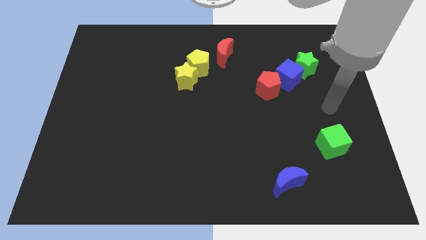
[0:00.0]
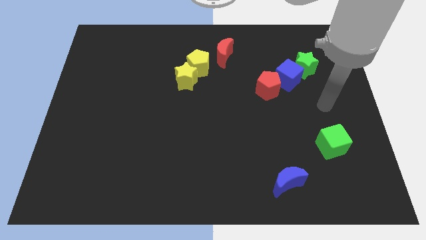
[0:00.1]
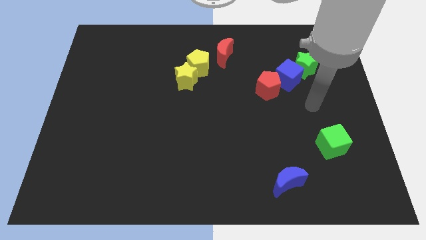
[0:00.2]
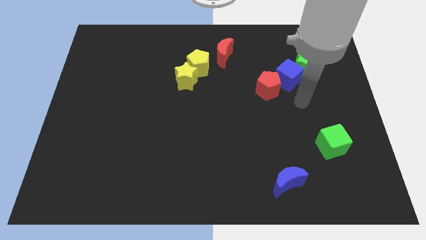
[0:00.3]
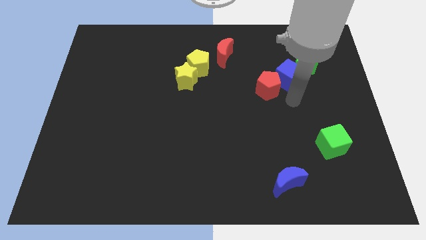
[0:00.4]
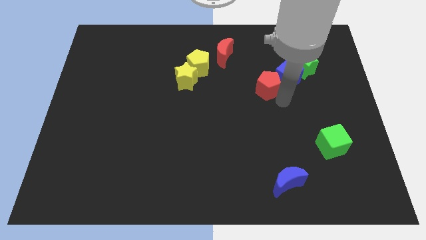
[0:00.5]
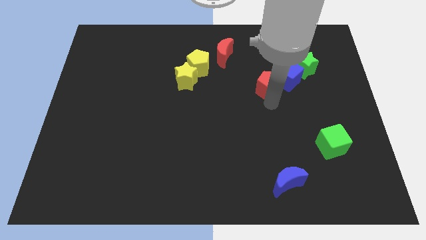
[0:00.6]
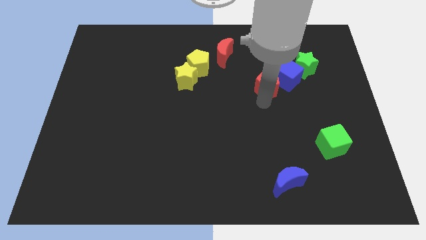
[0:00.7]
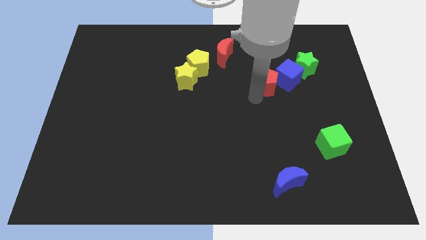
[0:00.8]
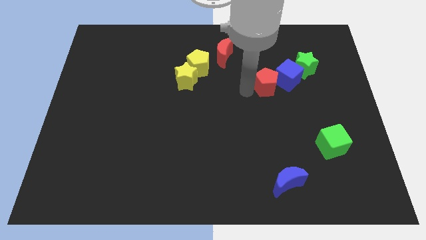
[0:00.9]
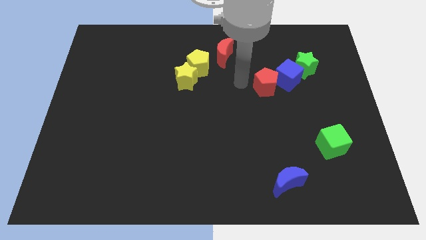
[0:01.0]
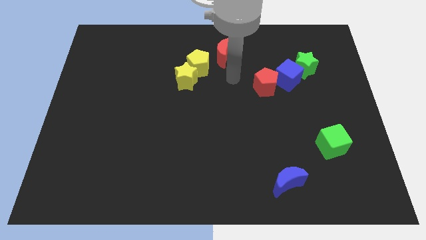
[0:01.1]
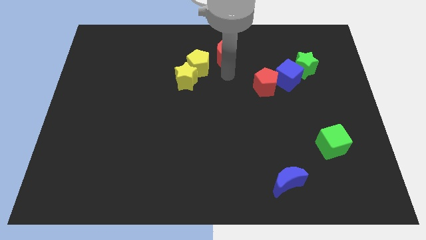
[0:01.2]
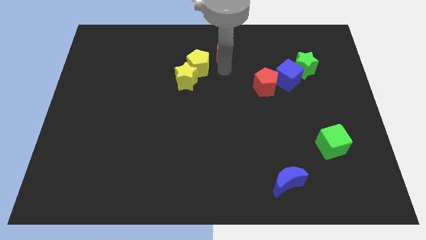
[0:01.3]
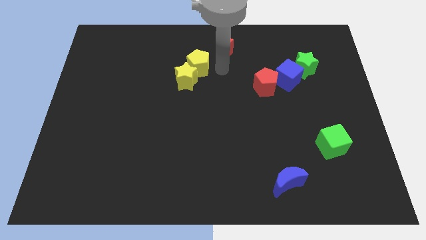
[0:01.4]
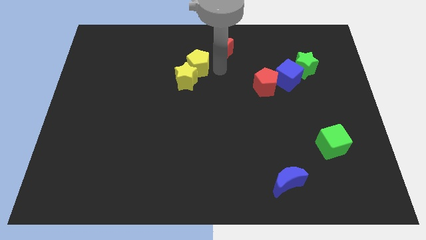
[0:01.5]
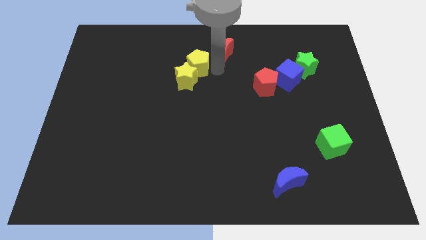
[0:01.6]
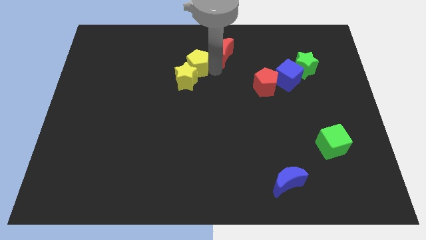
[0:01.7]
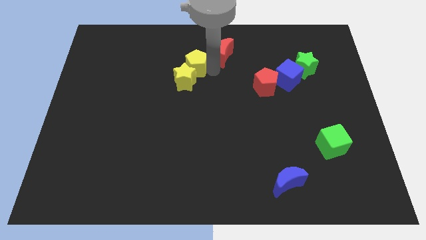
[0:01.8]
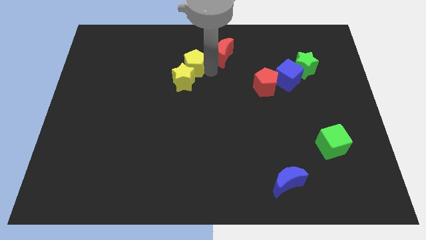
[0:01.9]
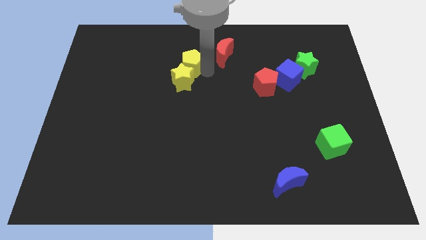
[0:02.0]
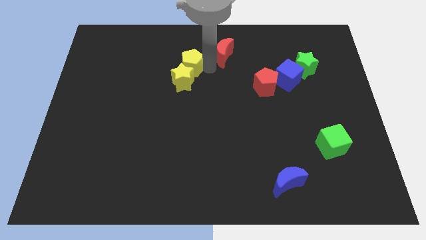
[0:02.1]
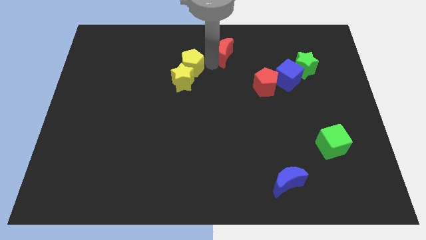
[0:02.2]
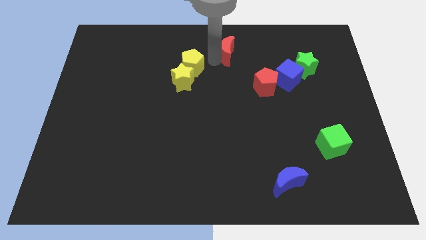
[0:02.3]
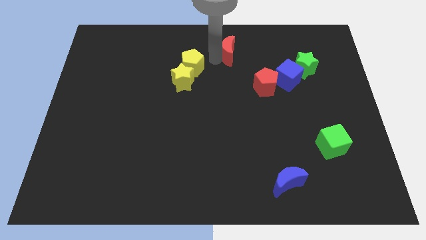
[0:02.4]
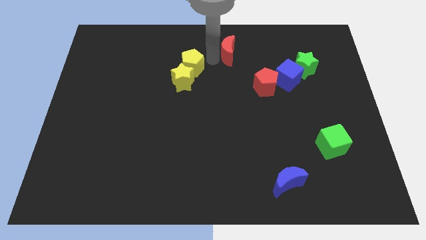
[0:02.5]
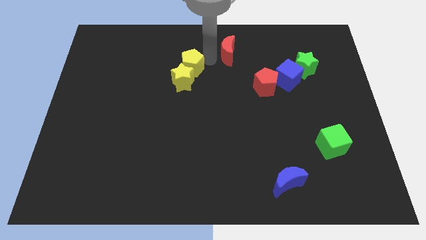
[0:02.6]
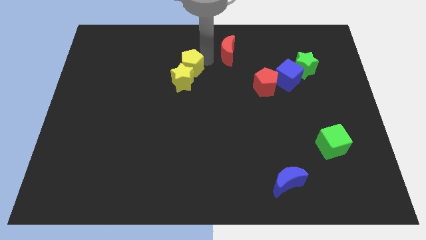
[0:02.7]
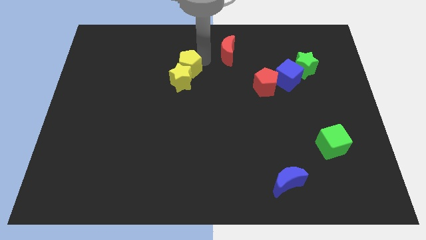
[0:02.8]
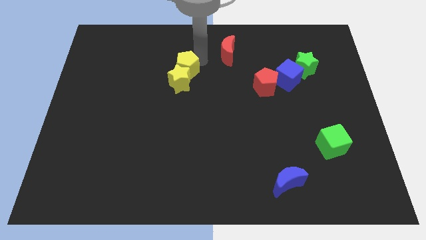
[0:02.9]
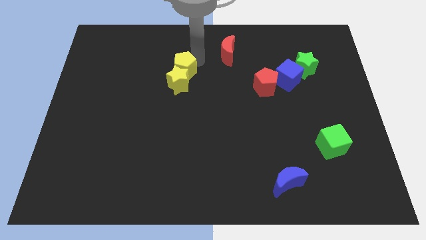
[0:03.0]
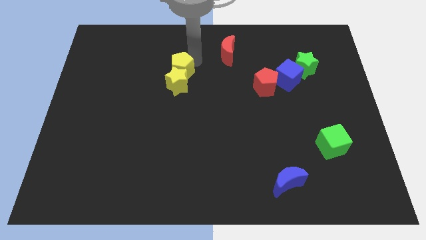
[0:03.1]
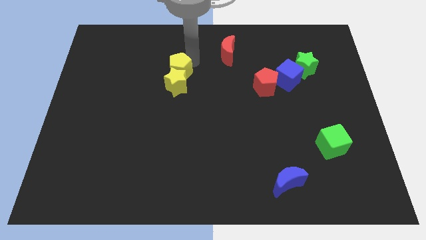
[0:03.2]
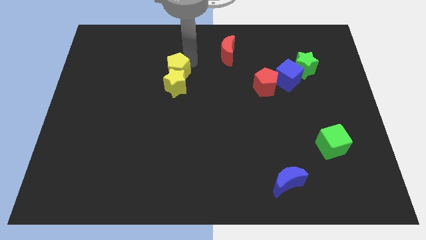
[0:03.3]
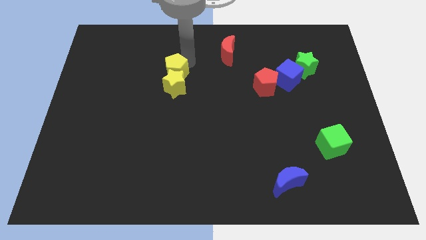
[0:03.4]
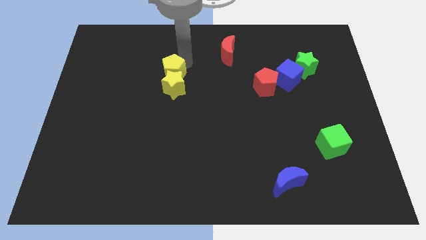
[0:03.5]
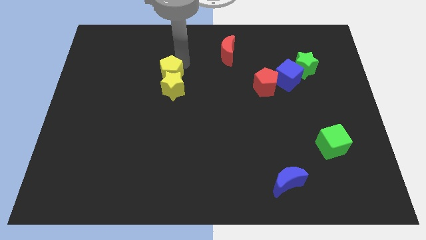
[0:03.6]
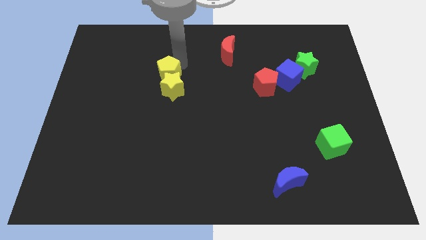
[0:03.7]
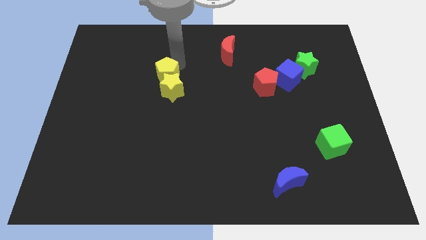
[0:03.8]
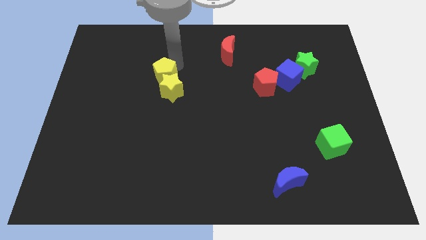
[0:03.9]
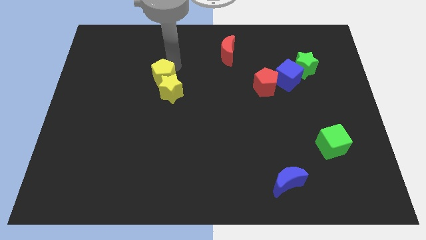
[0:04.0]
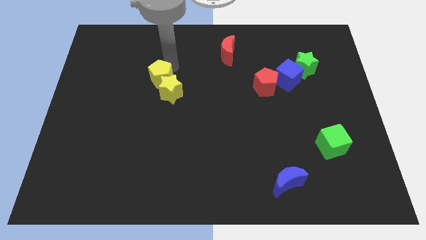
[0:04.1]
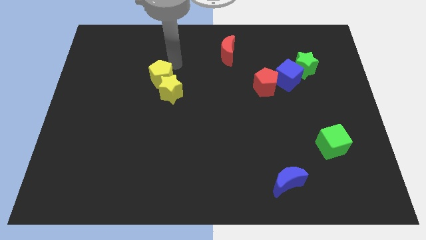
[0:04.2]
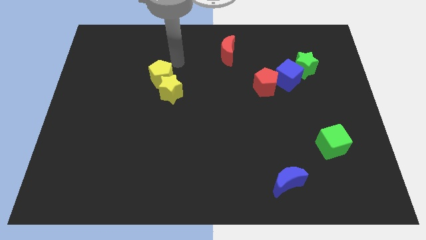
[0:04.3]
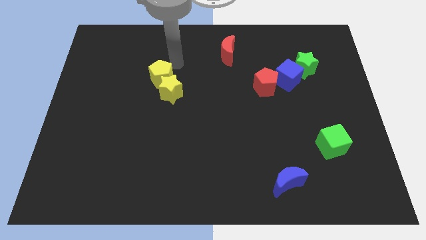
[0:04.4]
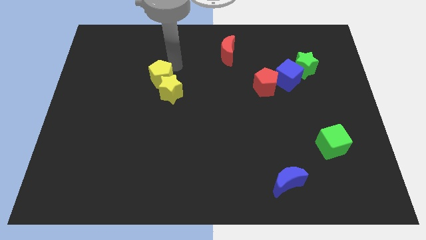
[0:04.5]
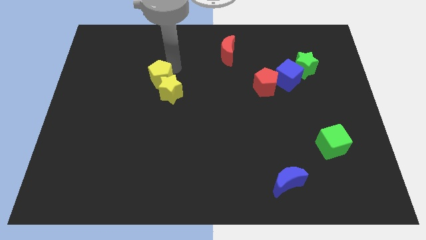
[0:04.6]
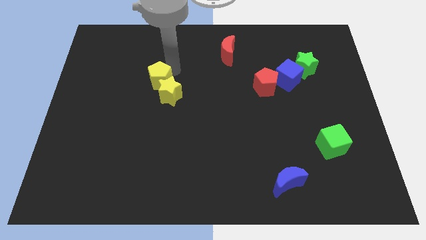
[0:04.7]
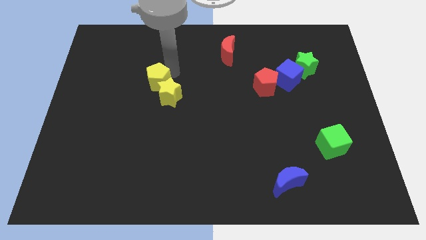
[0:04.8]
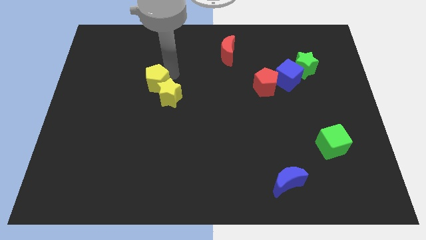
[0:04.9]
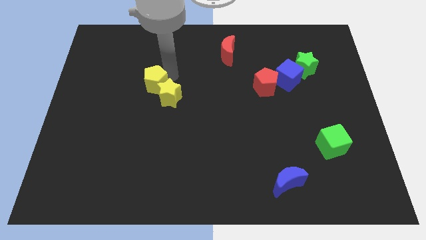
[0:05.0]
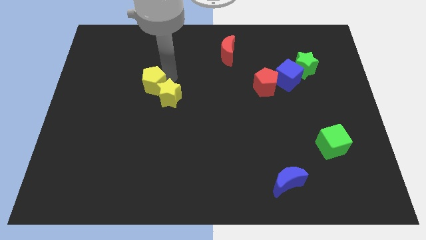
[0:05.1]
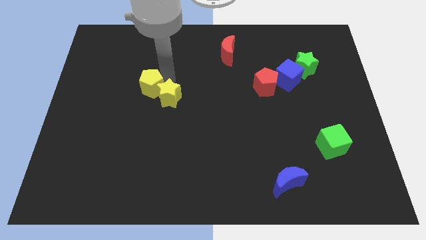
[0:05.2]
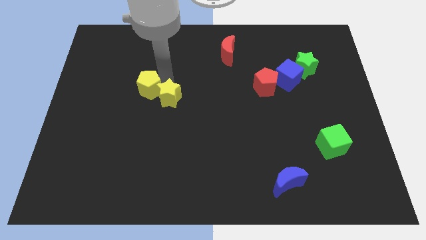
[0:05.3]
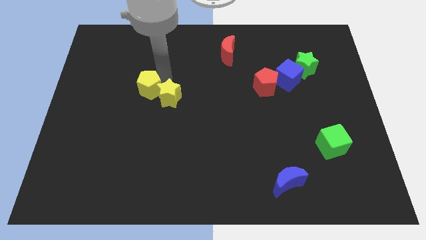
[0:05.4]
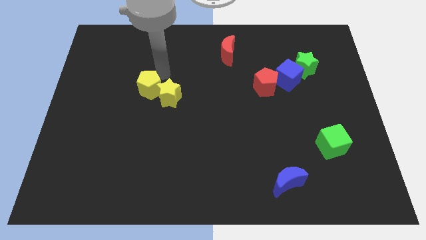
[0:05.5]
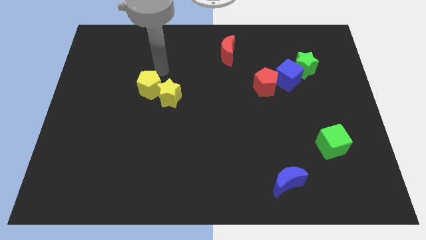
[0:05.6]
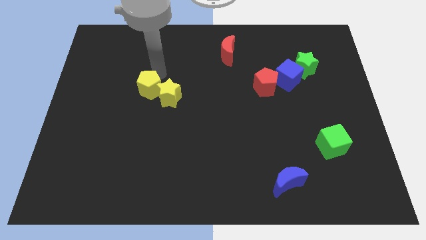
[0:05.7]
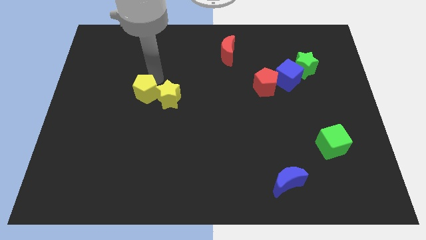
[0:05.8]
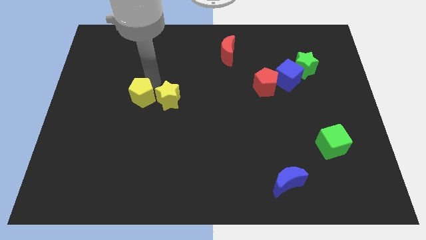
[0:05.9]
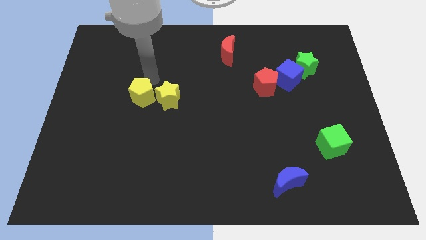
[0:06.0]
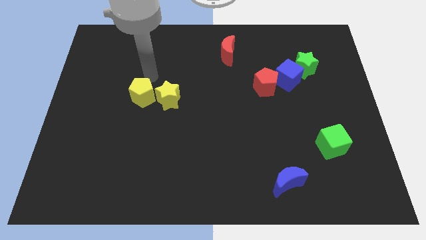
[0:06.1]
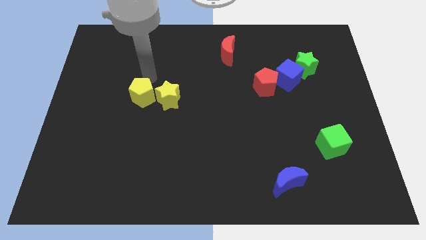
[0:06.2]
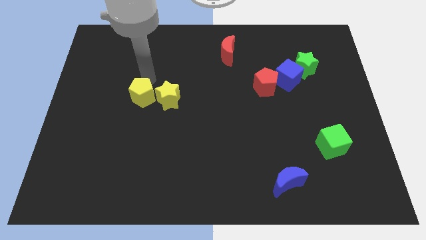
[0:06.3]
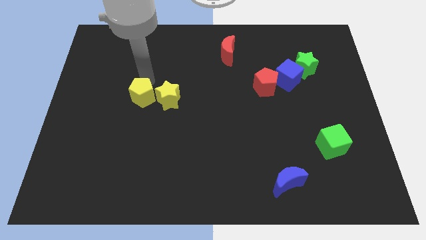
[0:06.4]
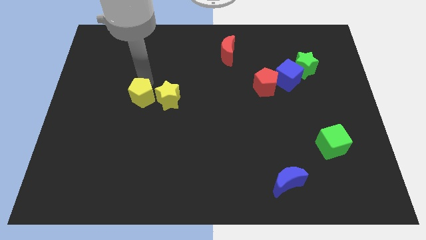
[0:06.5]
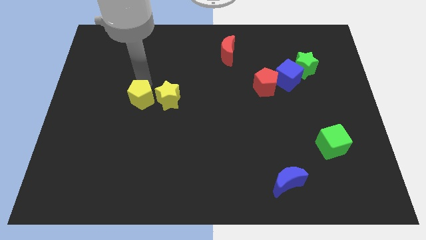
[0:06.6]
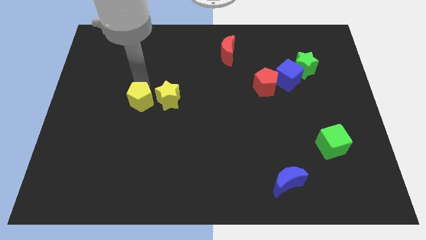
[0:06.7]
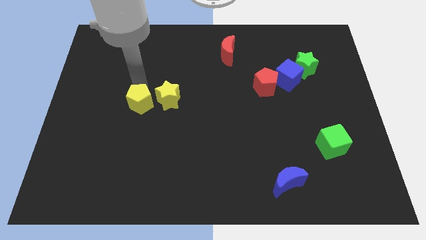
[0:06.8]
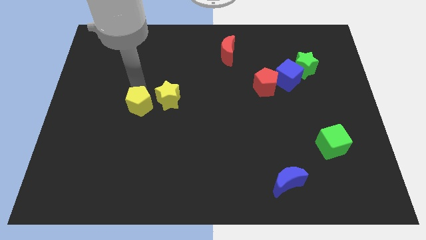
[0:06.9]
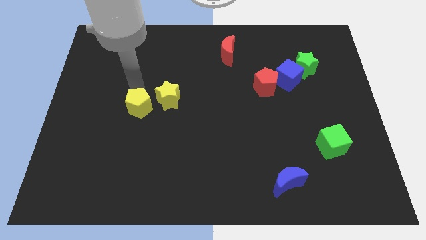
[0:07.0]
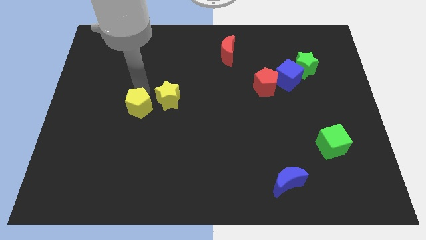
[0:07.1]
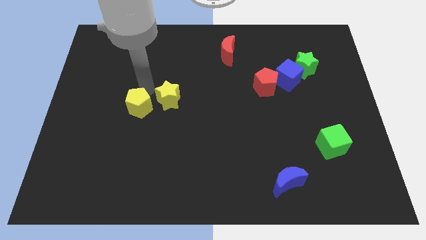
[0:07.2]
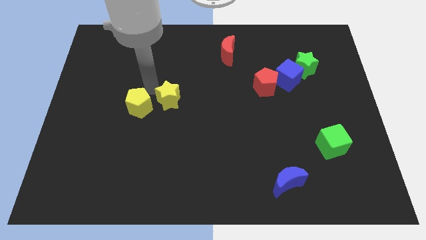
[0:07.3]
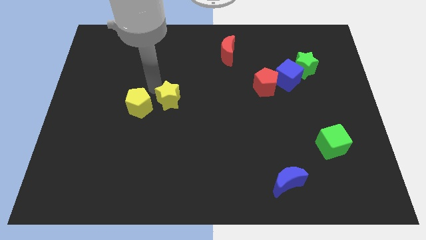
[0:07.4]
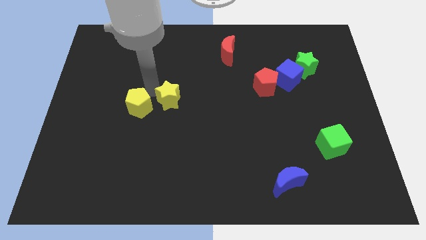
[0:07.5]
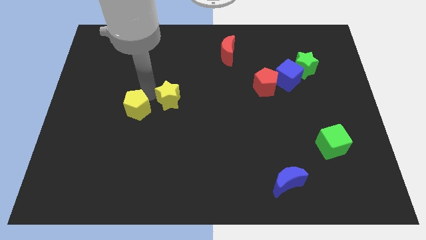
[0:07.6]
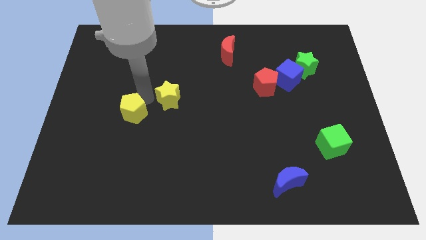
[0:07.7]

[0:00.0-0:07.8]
slide the yellow pentagon down and then to the left

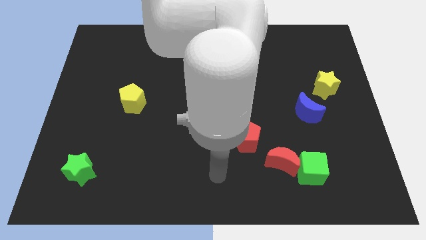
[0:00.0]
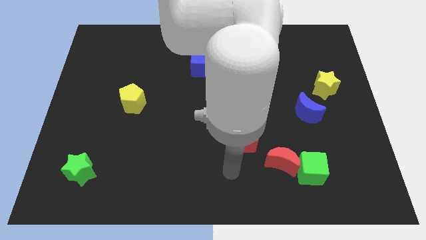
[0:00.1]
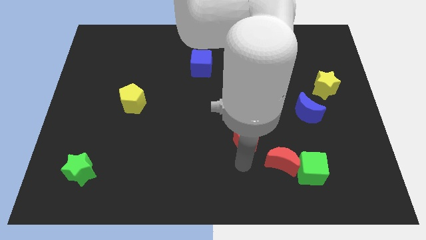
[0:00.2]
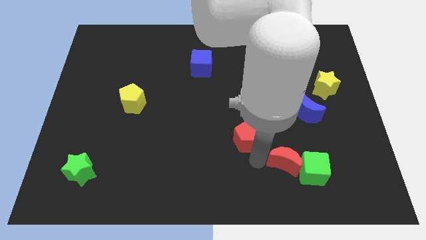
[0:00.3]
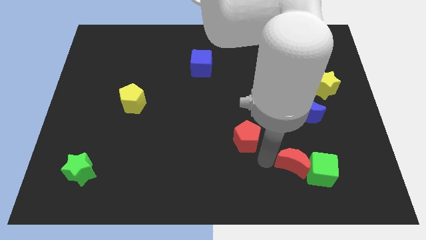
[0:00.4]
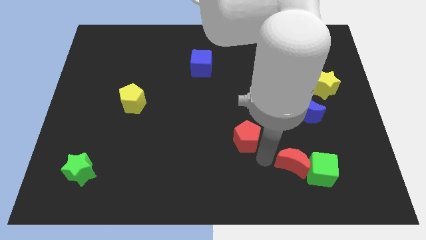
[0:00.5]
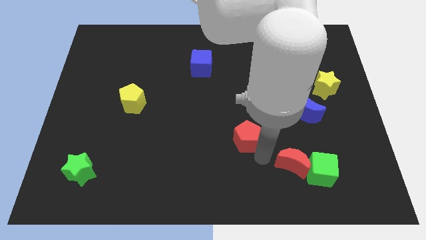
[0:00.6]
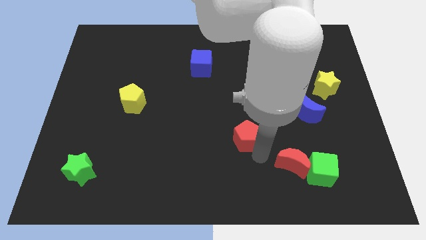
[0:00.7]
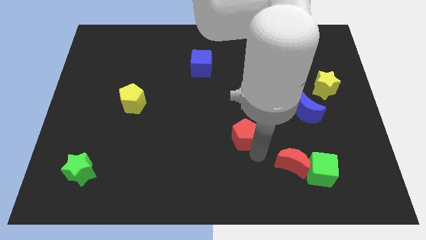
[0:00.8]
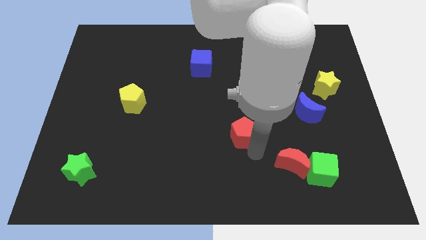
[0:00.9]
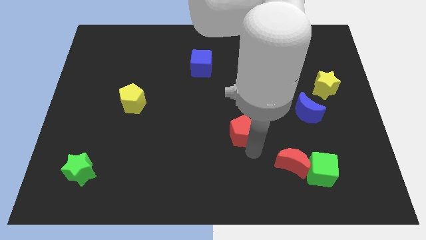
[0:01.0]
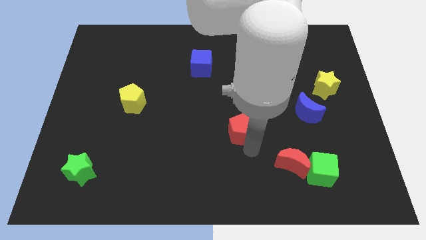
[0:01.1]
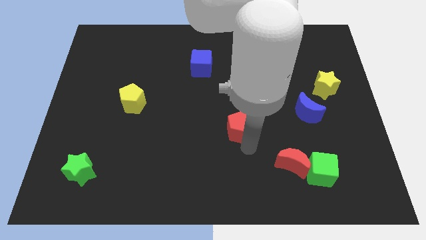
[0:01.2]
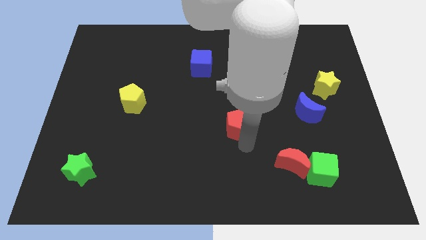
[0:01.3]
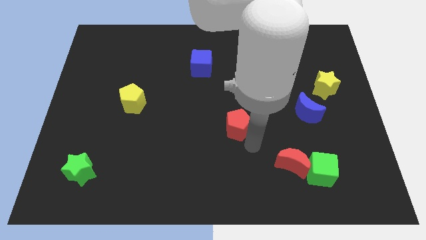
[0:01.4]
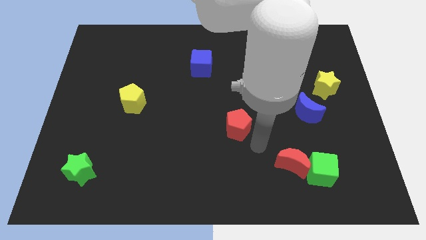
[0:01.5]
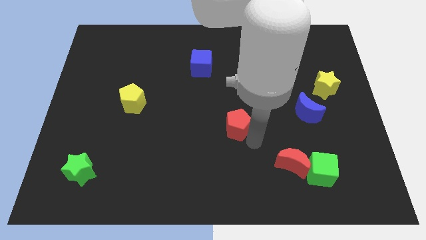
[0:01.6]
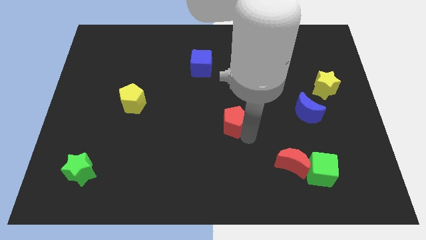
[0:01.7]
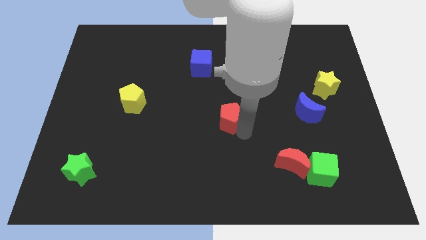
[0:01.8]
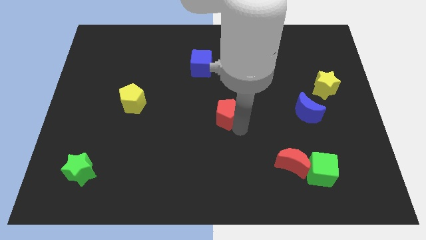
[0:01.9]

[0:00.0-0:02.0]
push the red pentagon upwards and left somewhat
